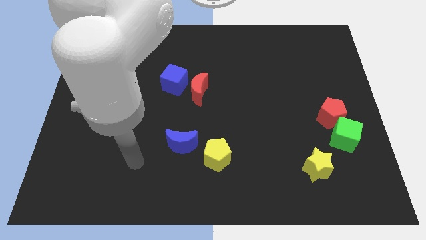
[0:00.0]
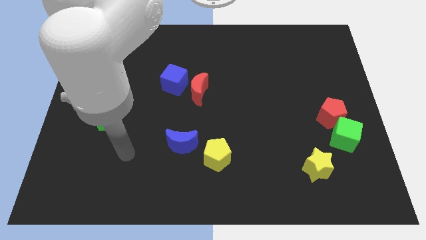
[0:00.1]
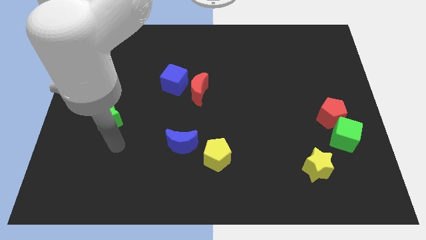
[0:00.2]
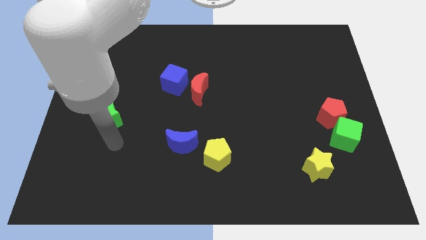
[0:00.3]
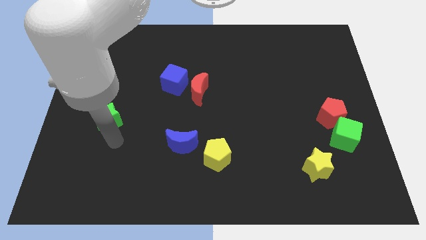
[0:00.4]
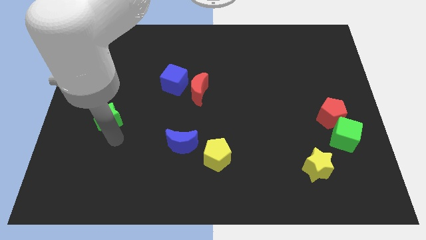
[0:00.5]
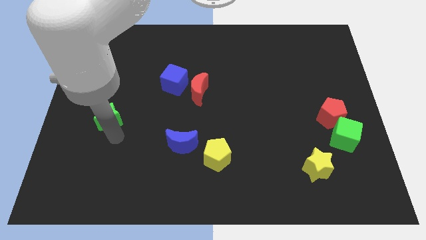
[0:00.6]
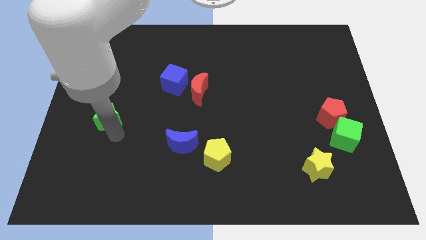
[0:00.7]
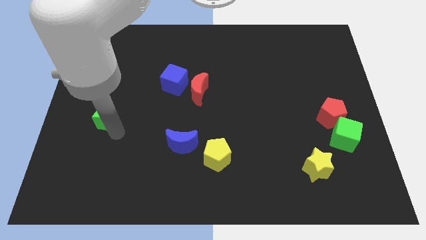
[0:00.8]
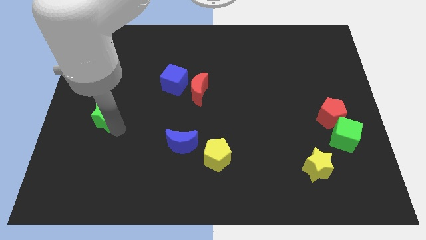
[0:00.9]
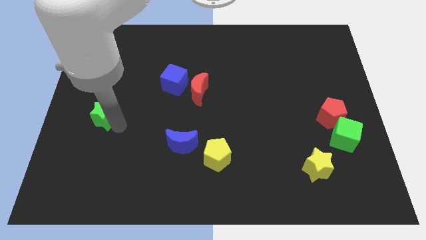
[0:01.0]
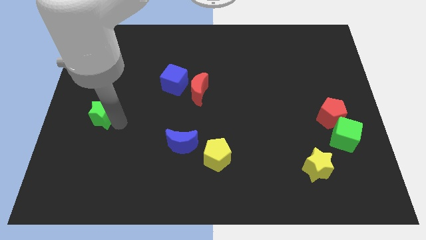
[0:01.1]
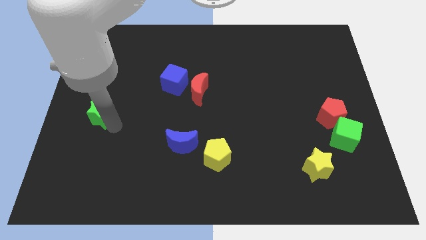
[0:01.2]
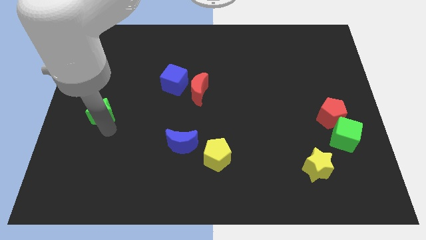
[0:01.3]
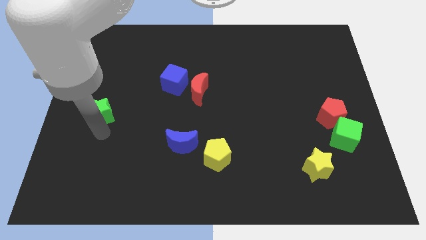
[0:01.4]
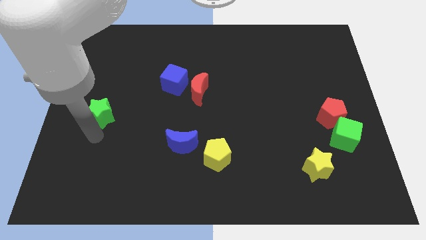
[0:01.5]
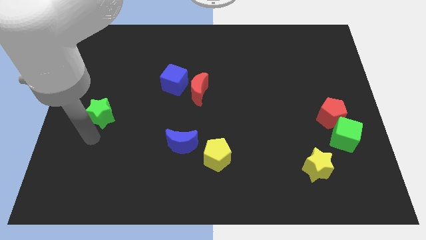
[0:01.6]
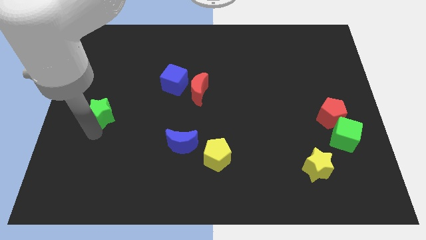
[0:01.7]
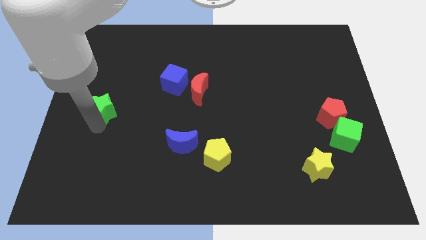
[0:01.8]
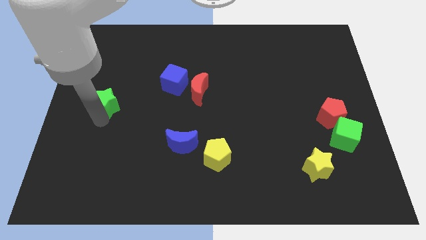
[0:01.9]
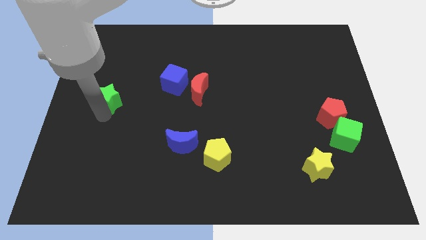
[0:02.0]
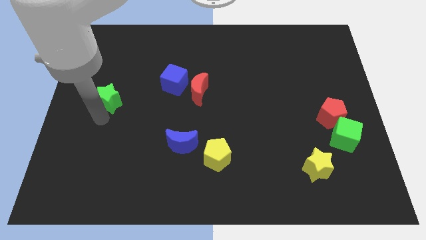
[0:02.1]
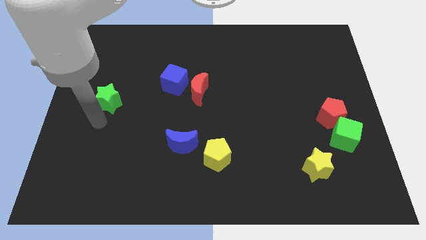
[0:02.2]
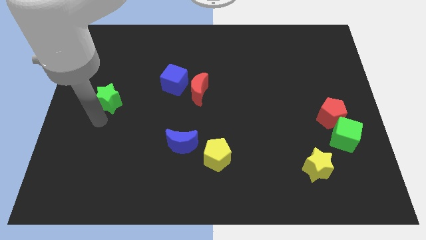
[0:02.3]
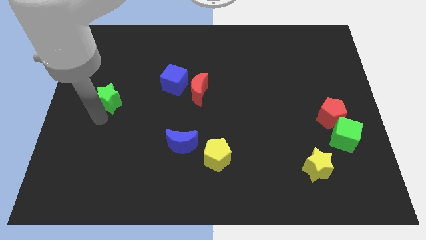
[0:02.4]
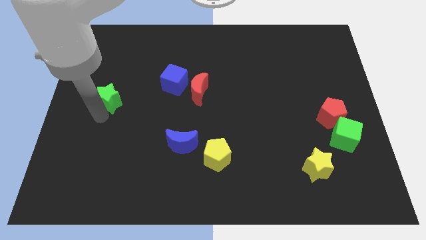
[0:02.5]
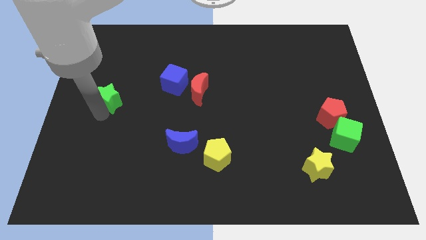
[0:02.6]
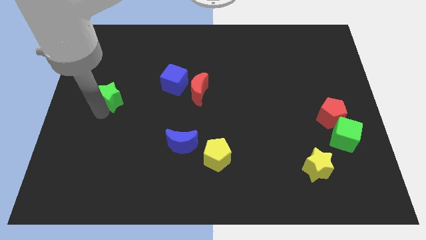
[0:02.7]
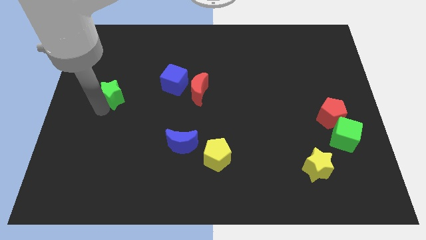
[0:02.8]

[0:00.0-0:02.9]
slide the green star up a bit

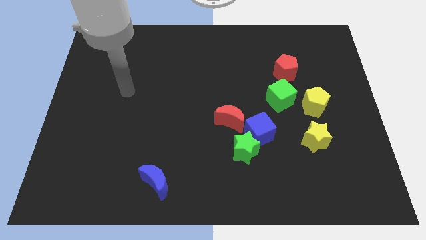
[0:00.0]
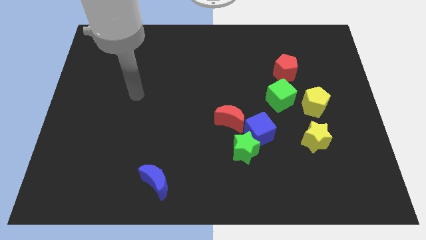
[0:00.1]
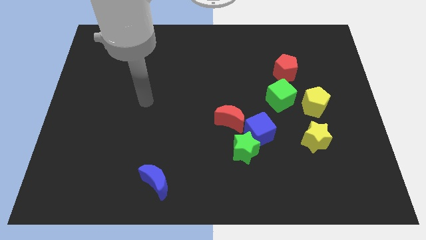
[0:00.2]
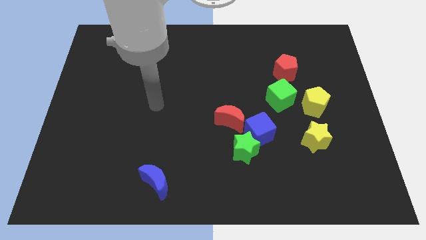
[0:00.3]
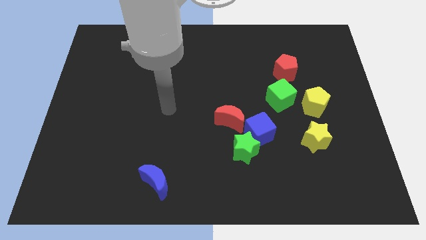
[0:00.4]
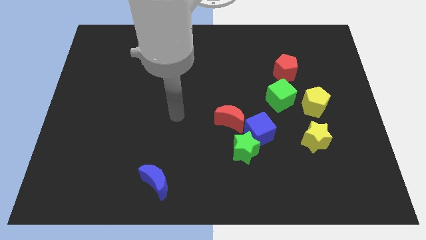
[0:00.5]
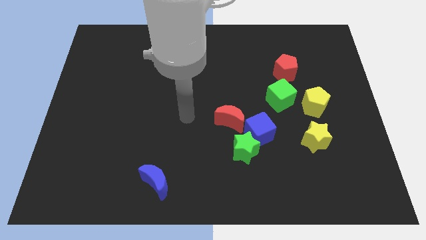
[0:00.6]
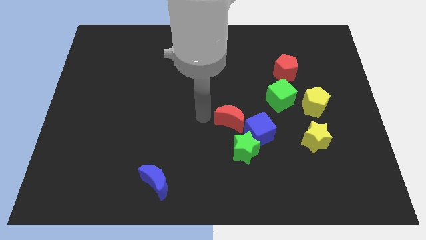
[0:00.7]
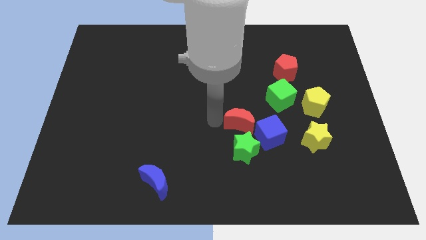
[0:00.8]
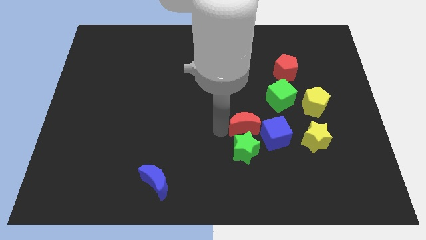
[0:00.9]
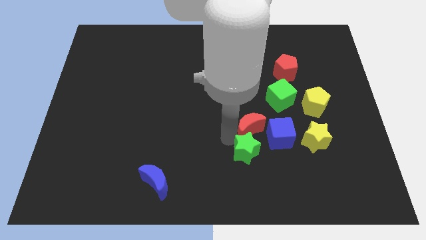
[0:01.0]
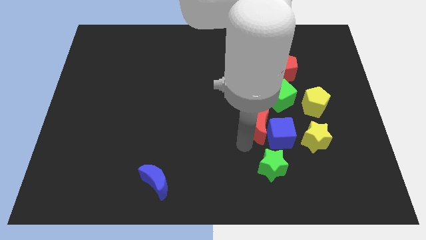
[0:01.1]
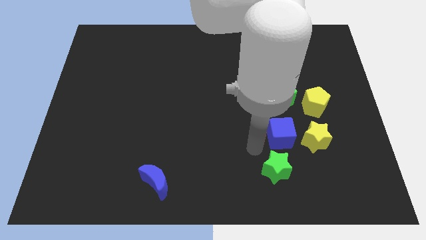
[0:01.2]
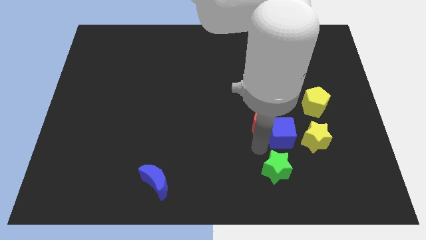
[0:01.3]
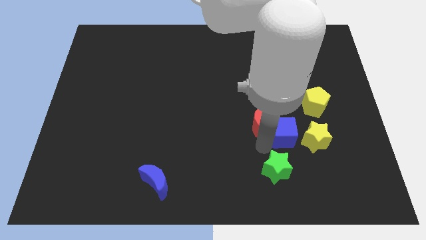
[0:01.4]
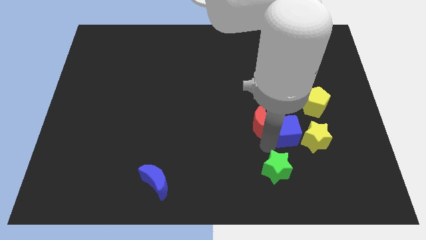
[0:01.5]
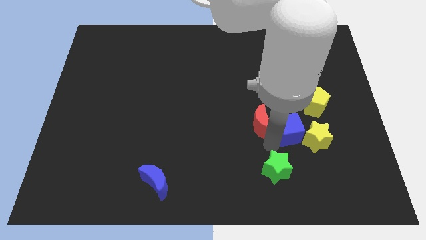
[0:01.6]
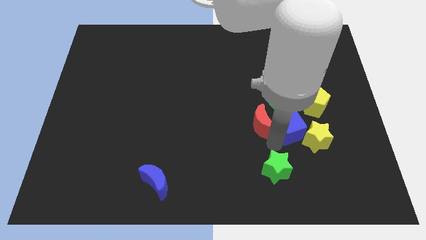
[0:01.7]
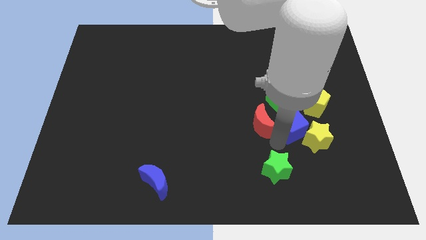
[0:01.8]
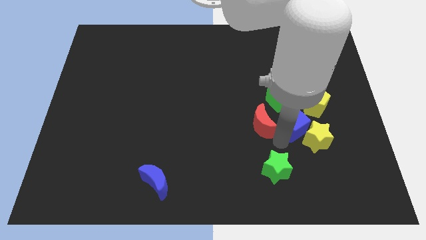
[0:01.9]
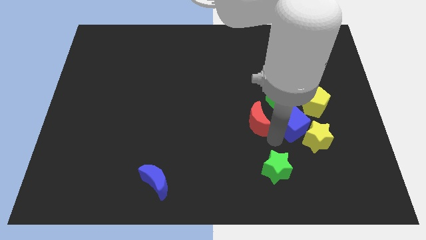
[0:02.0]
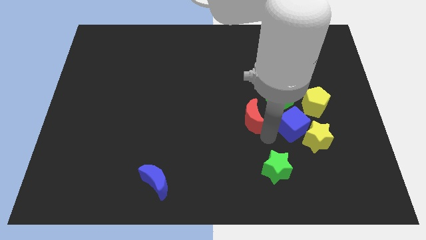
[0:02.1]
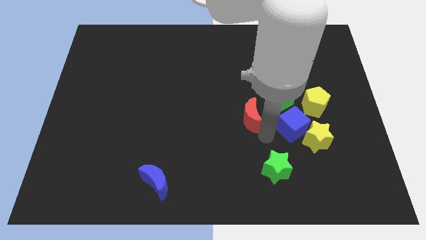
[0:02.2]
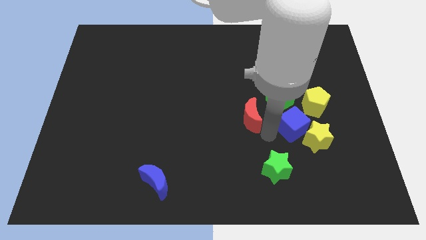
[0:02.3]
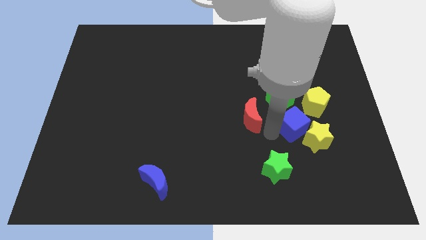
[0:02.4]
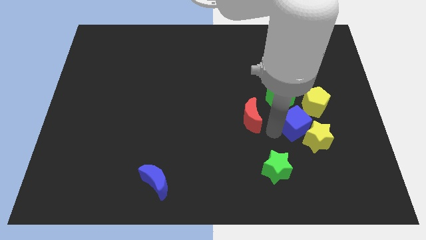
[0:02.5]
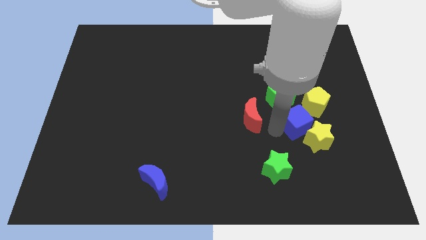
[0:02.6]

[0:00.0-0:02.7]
move the blue cube diagonally upwards and right a bit

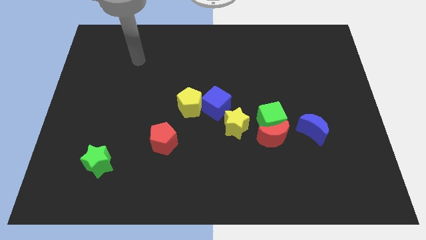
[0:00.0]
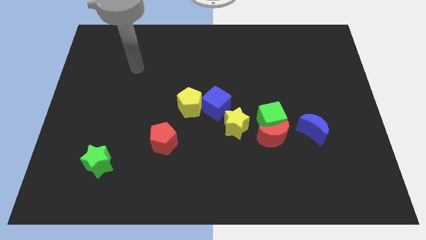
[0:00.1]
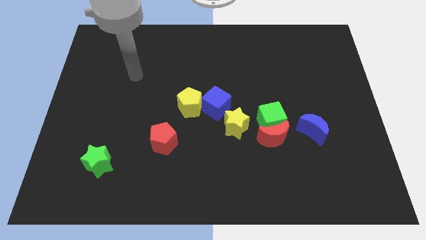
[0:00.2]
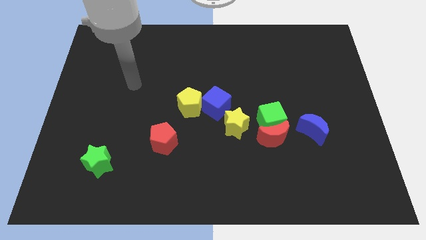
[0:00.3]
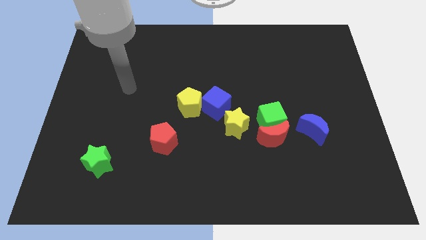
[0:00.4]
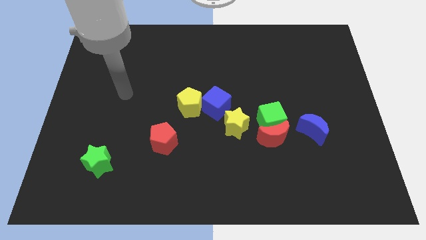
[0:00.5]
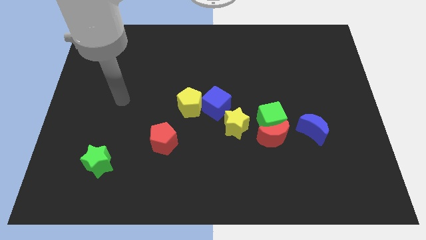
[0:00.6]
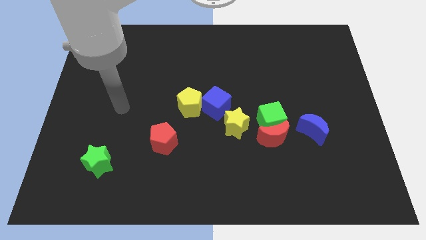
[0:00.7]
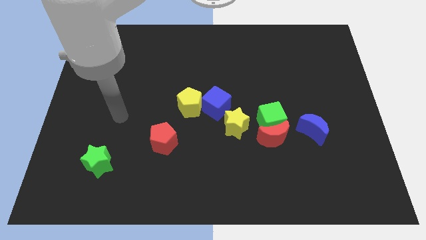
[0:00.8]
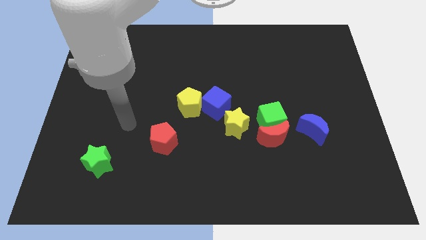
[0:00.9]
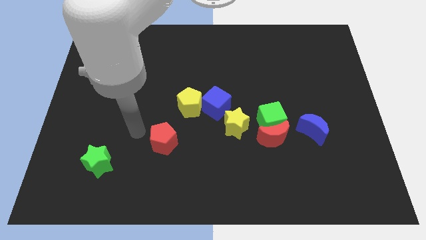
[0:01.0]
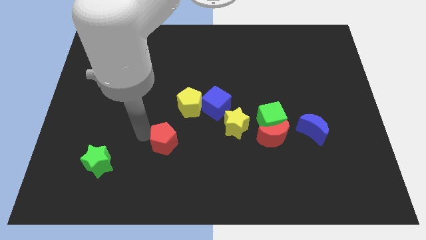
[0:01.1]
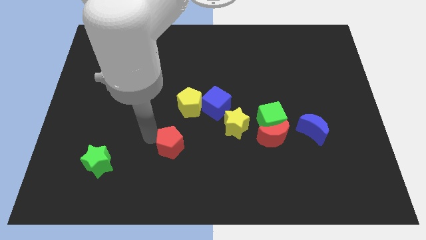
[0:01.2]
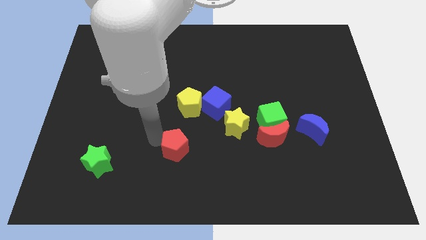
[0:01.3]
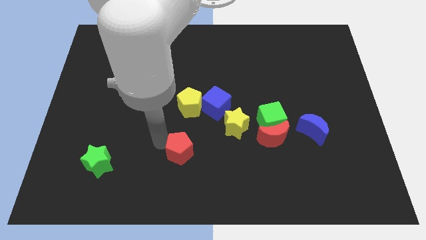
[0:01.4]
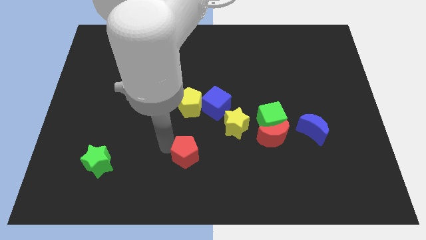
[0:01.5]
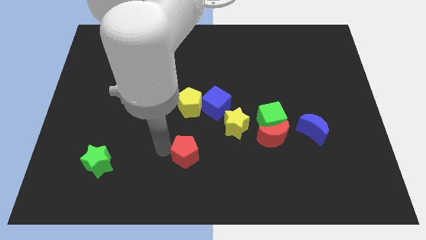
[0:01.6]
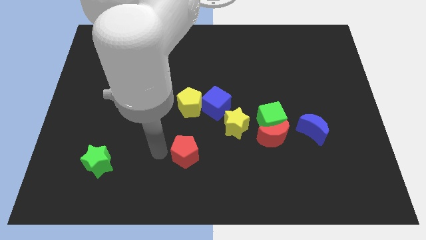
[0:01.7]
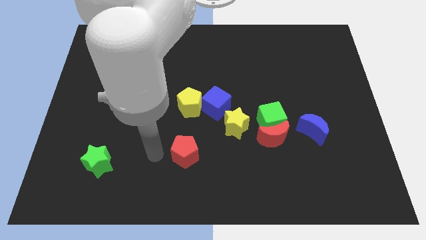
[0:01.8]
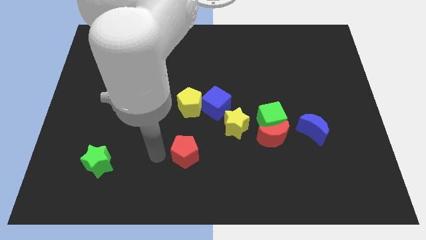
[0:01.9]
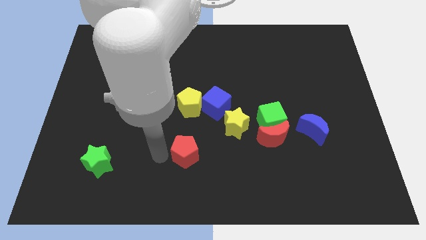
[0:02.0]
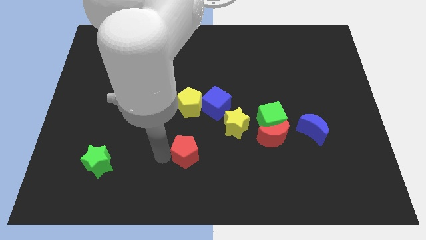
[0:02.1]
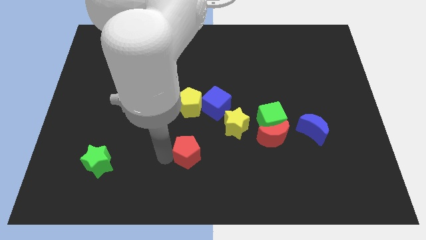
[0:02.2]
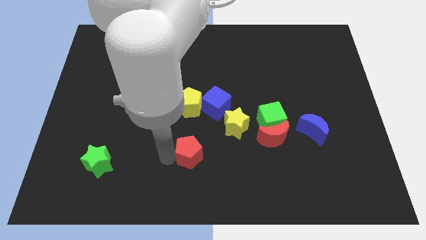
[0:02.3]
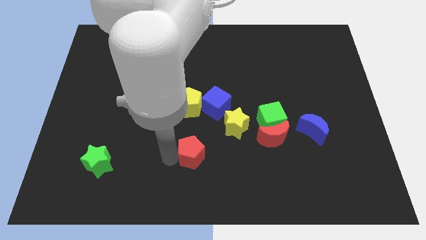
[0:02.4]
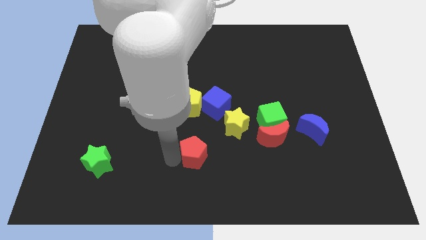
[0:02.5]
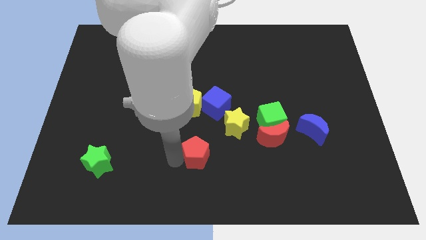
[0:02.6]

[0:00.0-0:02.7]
slightly slide the red pentagon right
